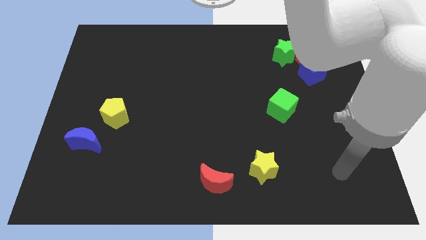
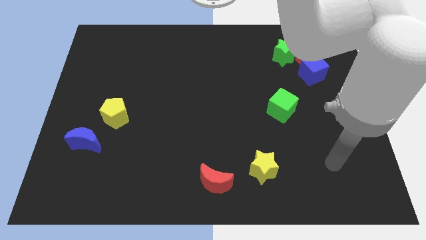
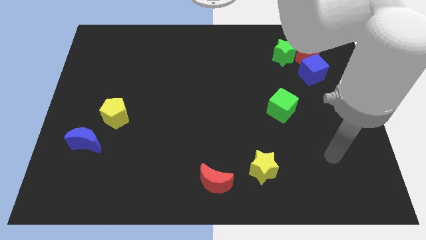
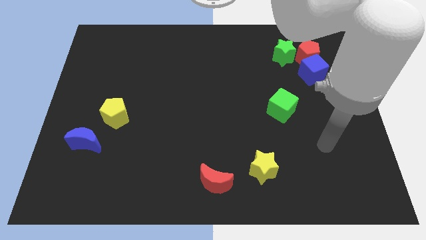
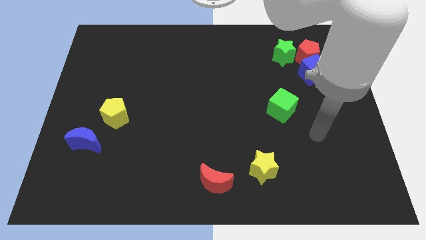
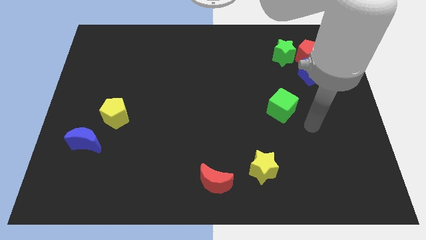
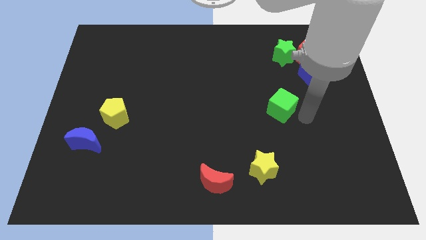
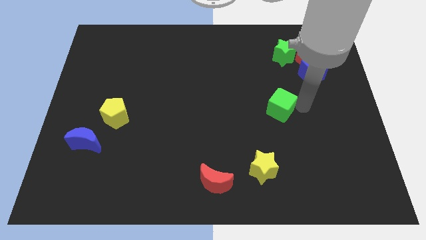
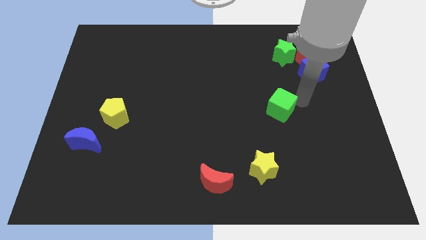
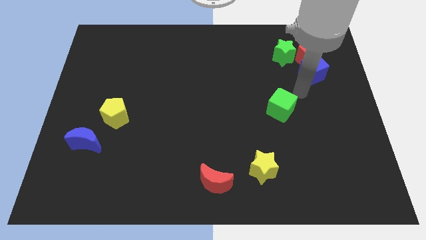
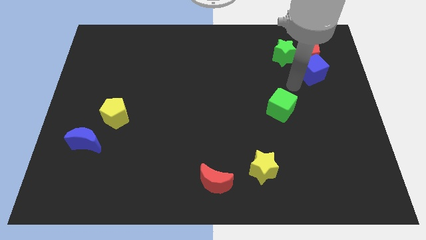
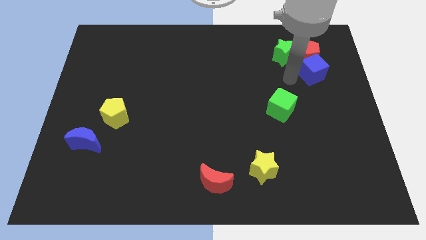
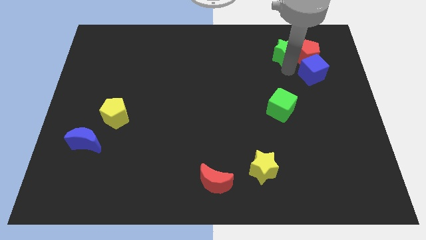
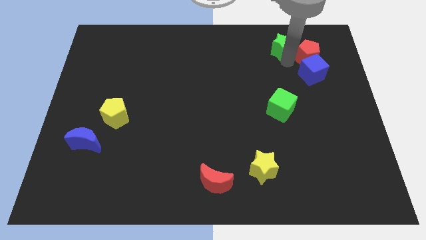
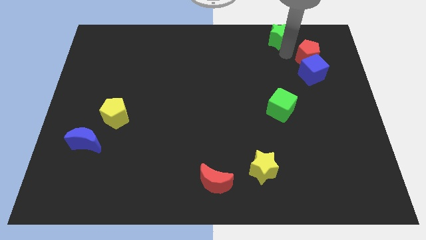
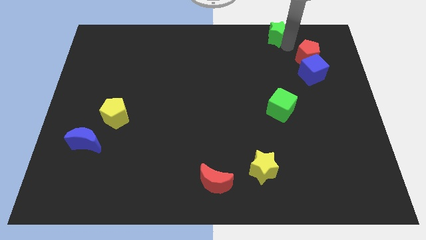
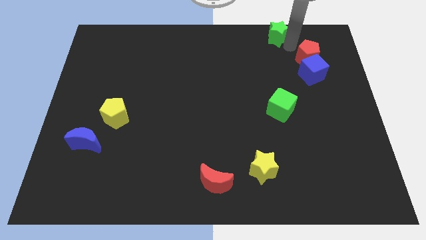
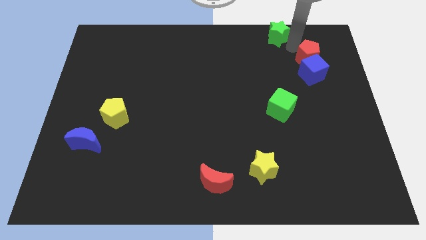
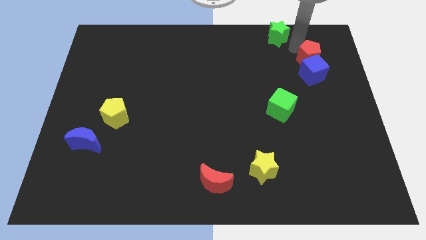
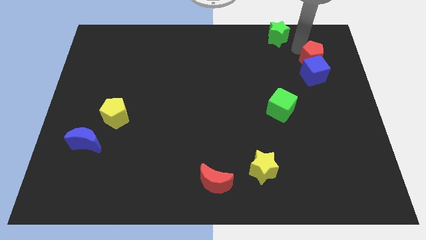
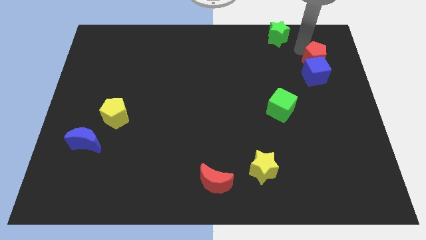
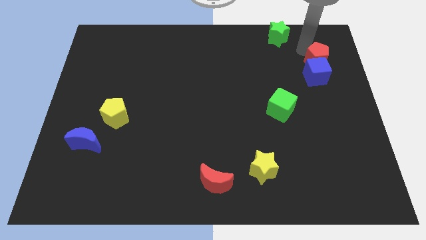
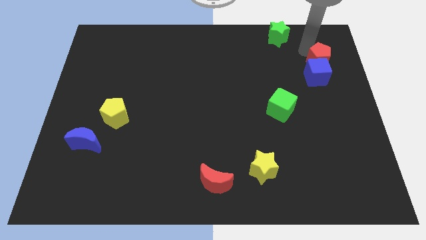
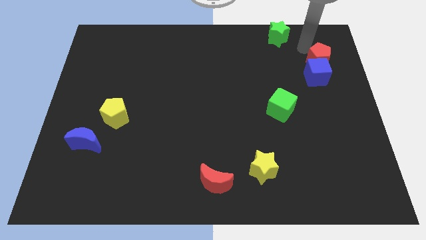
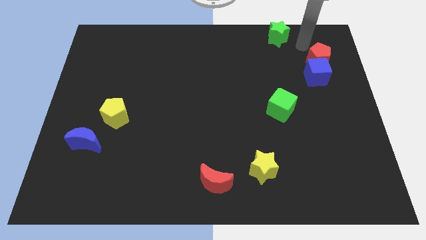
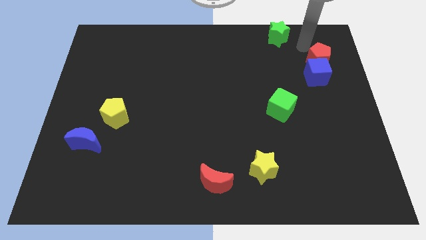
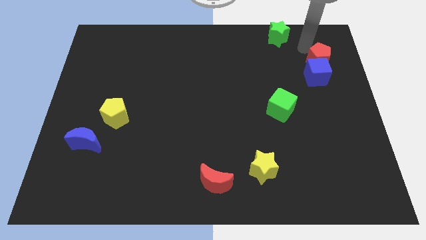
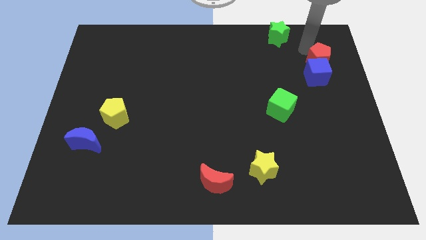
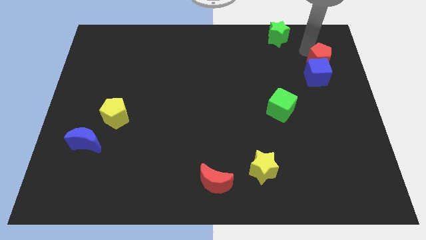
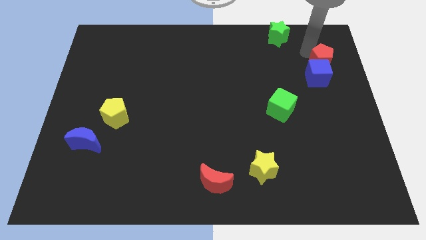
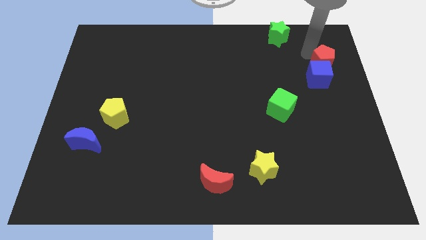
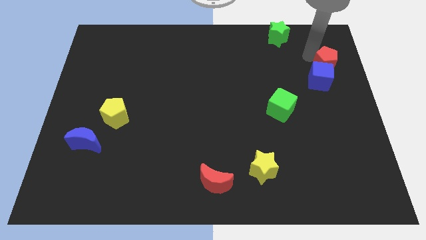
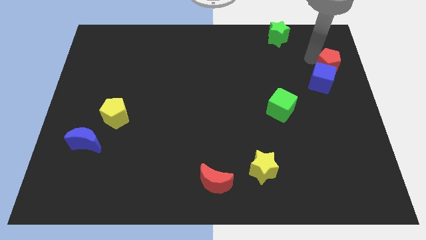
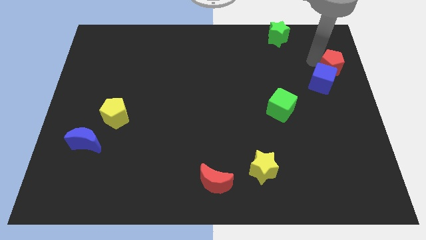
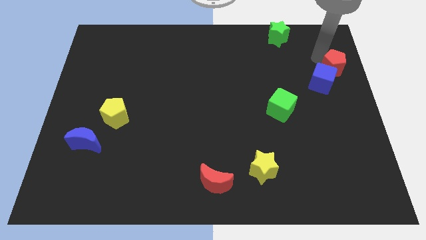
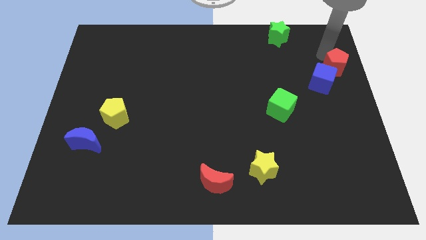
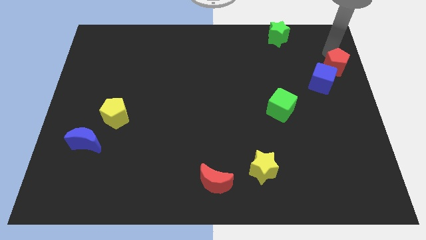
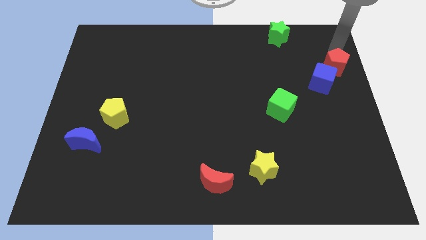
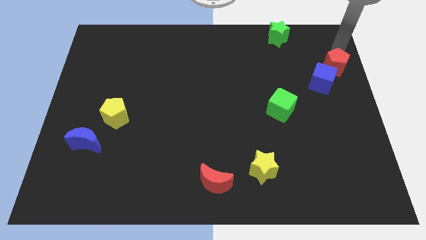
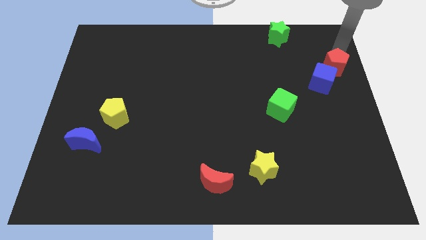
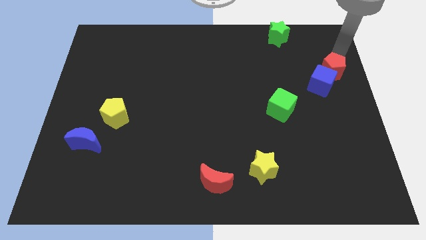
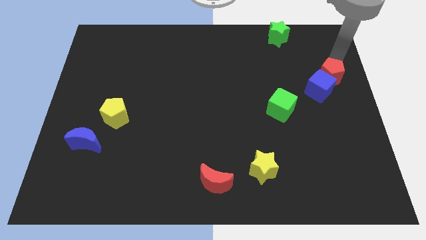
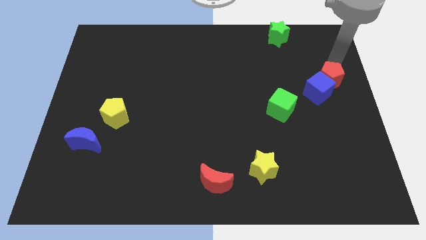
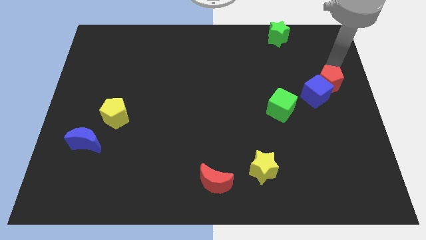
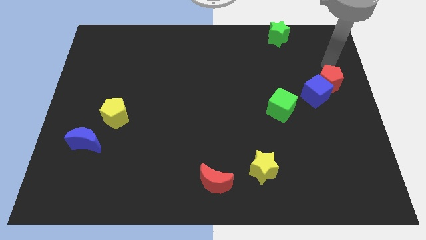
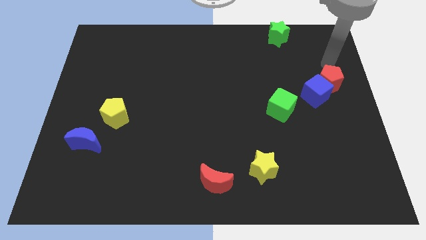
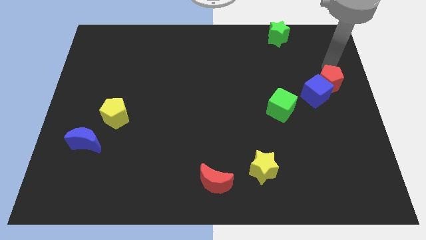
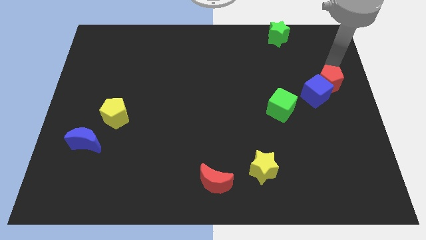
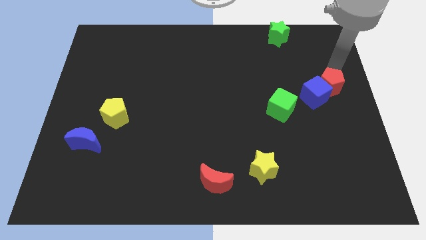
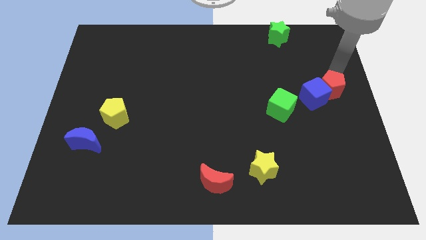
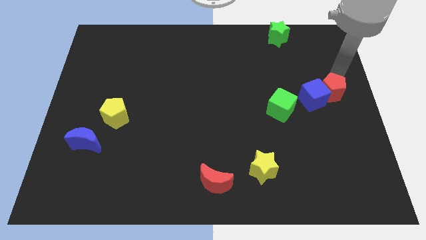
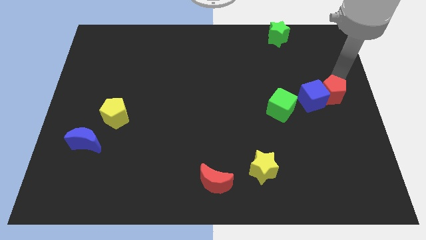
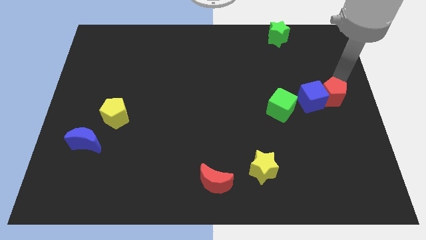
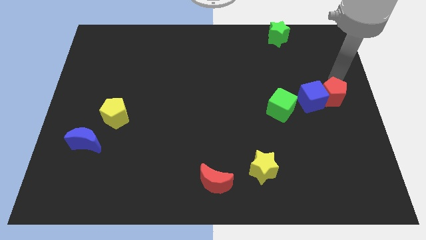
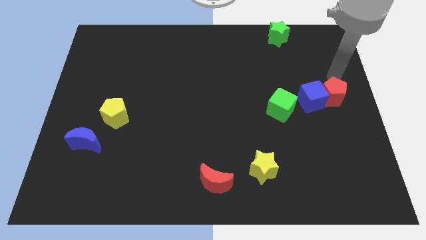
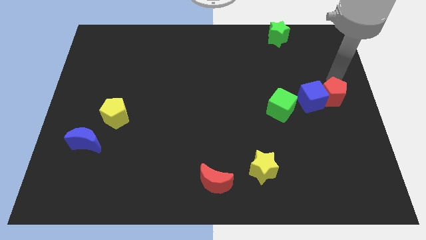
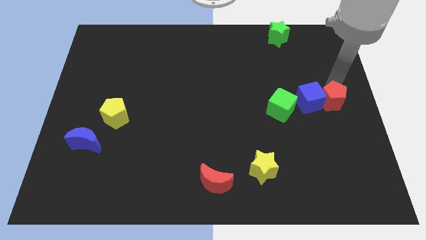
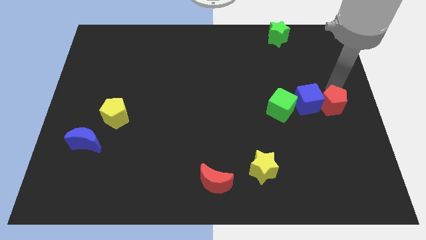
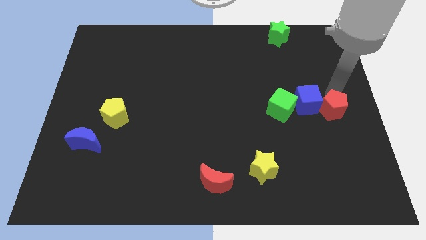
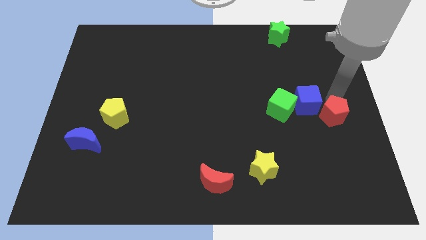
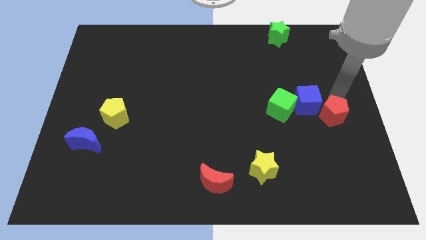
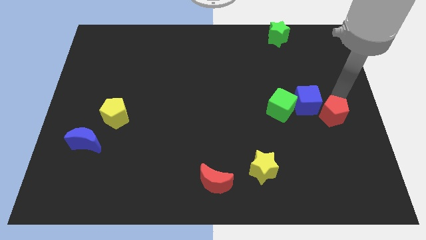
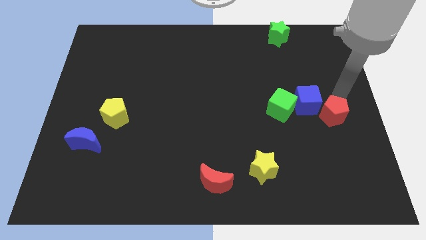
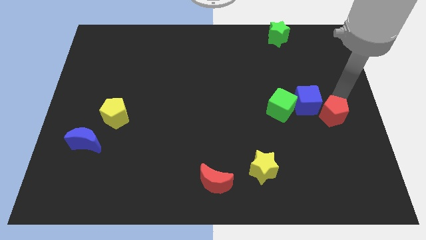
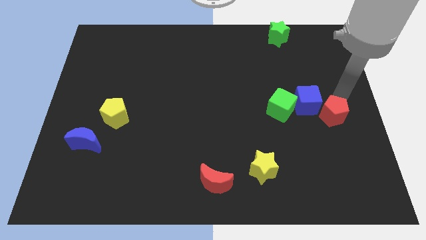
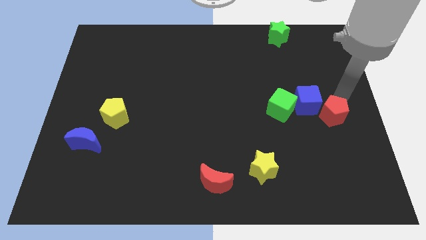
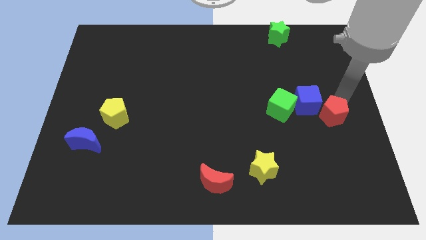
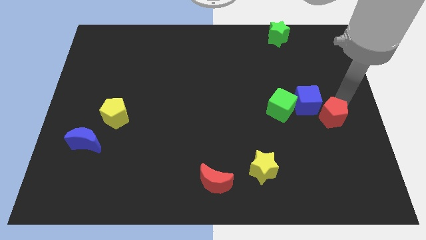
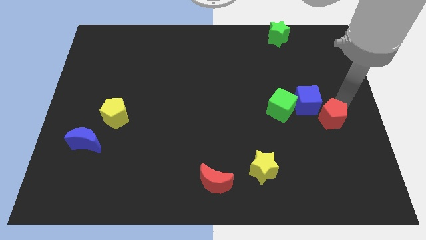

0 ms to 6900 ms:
push the red pentagon down

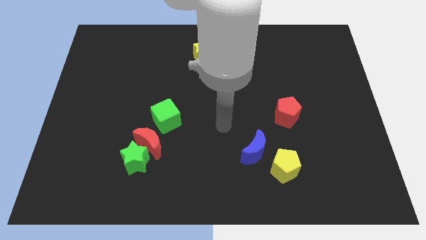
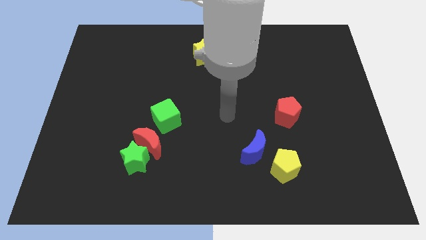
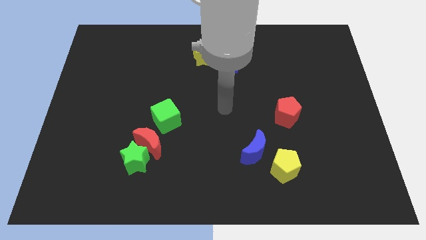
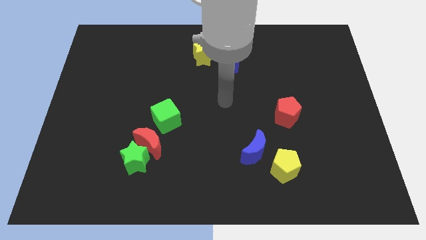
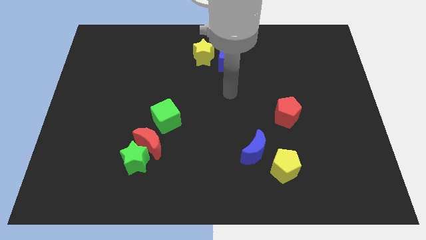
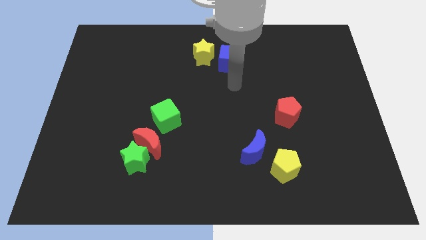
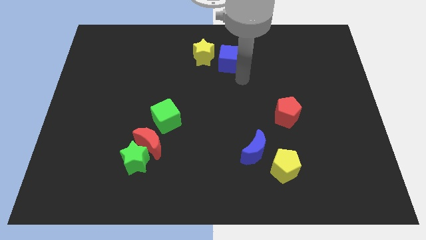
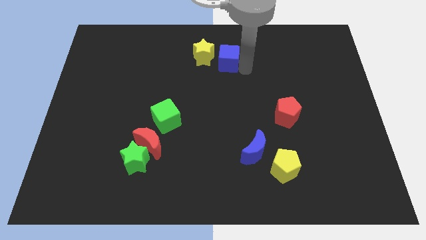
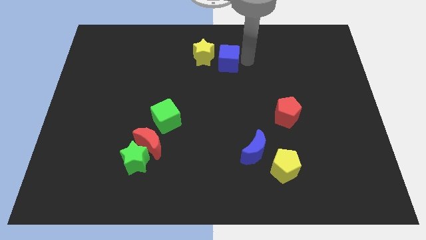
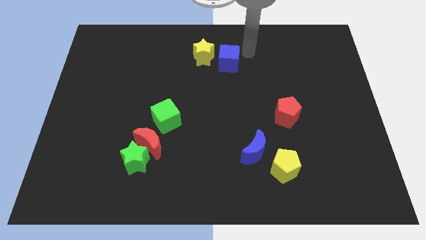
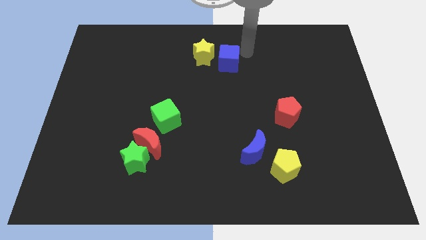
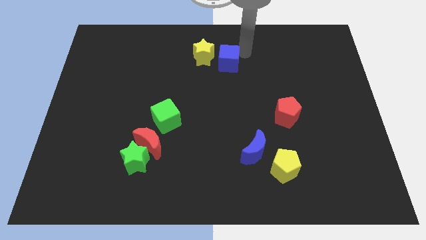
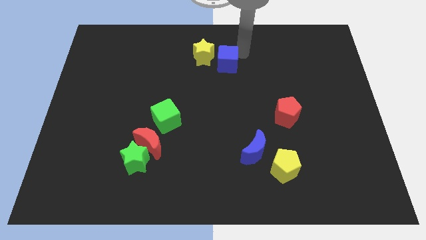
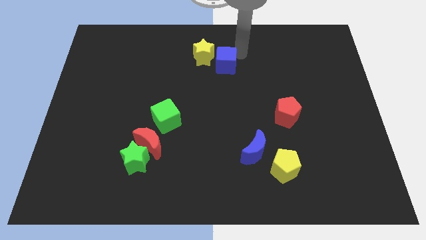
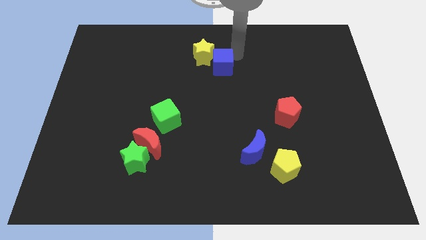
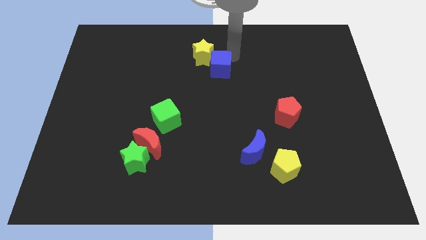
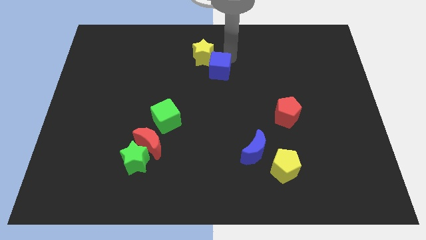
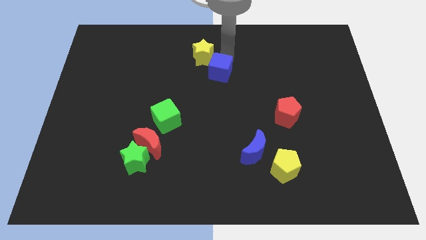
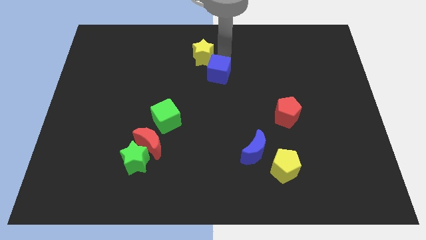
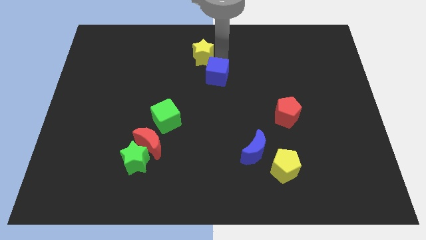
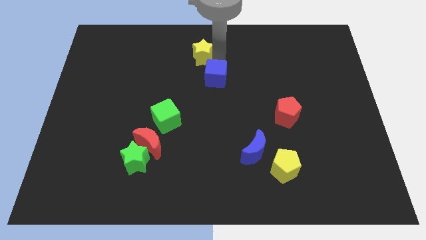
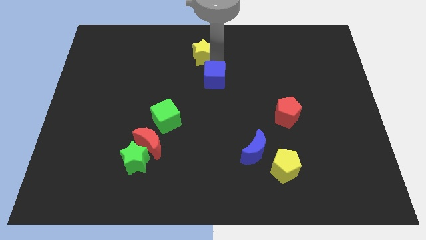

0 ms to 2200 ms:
push the blue cube diagonally down and to the left a bit
